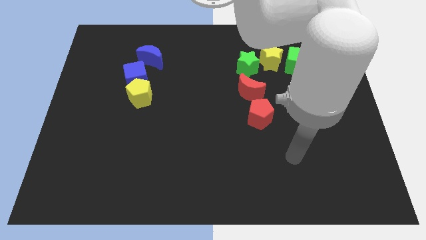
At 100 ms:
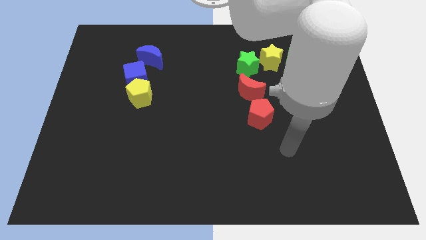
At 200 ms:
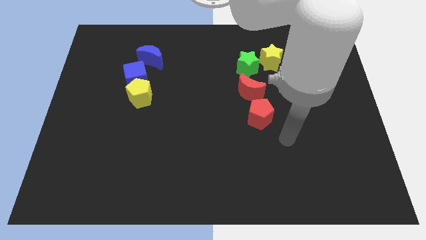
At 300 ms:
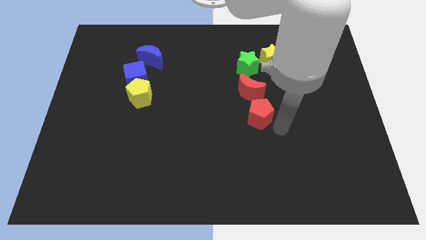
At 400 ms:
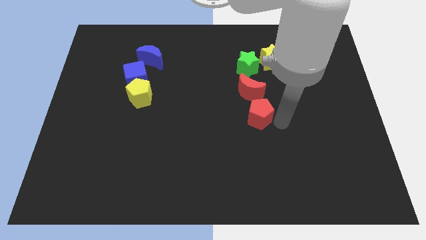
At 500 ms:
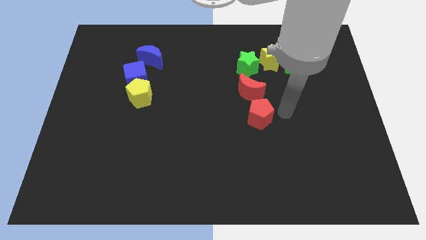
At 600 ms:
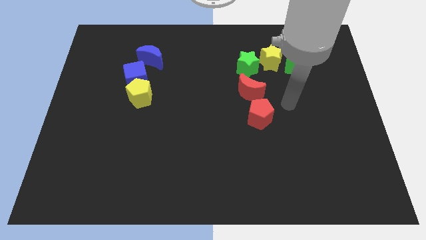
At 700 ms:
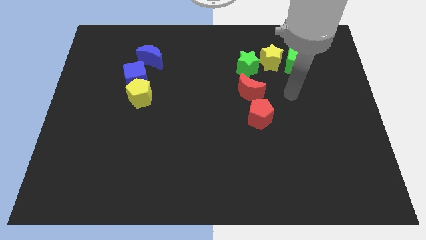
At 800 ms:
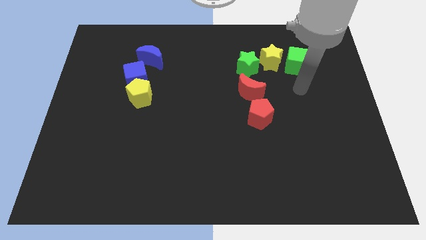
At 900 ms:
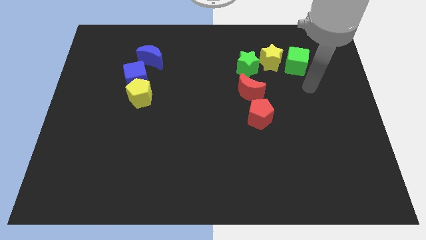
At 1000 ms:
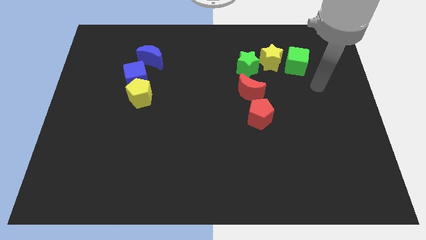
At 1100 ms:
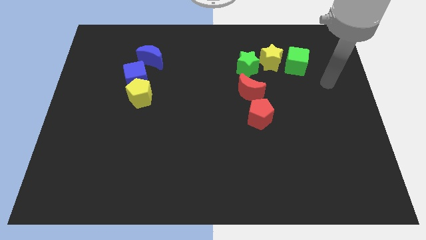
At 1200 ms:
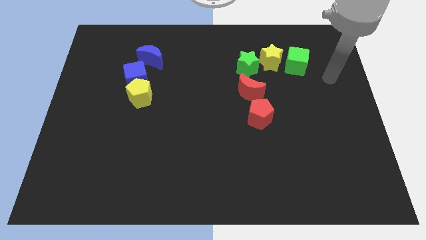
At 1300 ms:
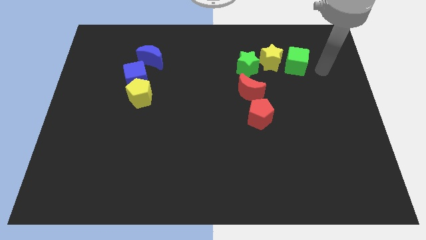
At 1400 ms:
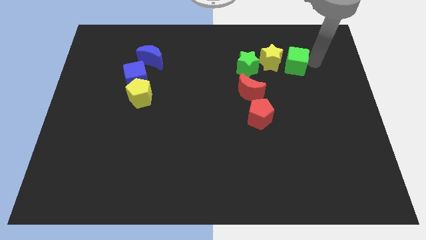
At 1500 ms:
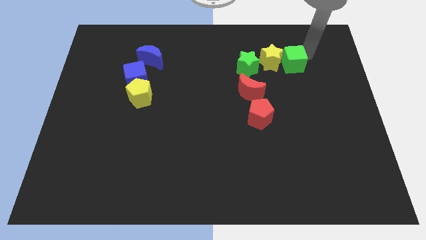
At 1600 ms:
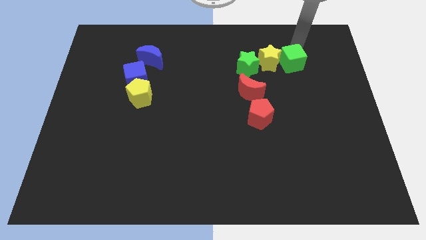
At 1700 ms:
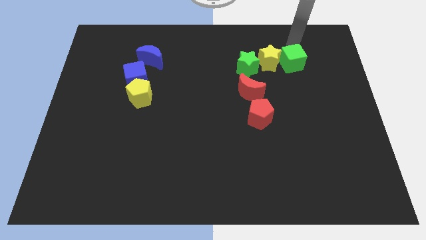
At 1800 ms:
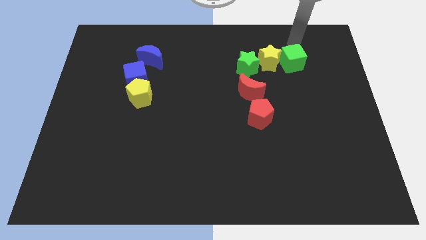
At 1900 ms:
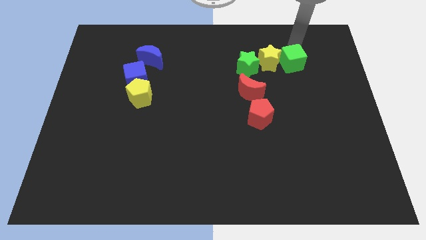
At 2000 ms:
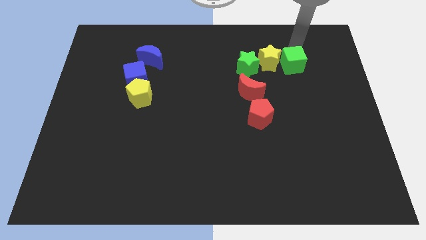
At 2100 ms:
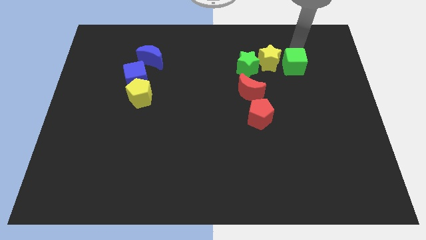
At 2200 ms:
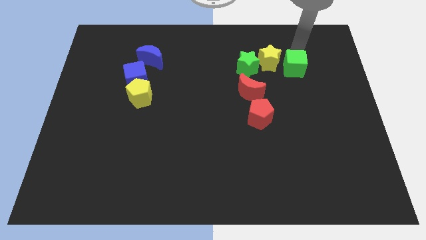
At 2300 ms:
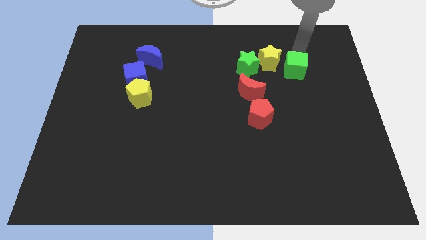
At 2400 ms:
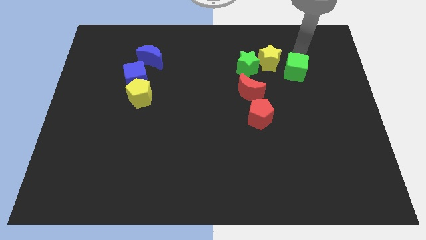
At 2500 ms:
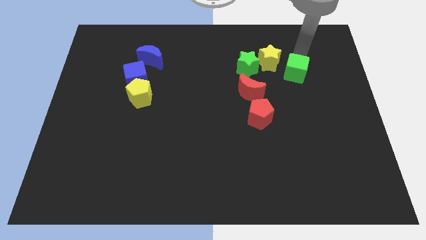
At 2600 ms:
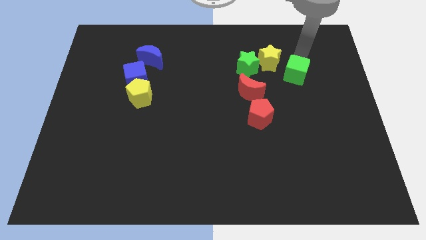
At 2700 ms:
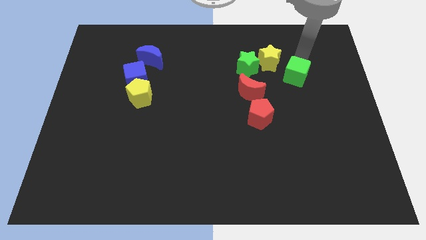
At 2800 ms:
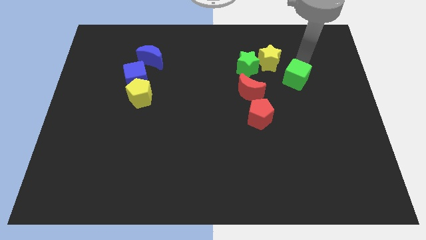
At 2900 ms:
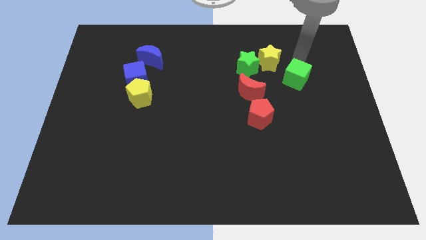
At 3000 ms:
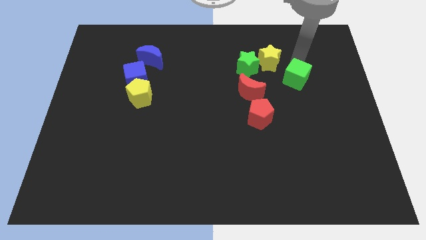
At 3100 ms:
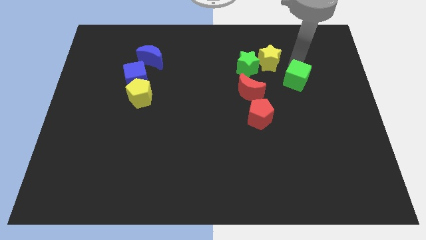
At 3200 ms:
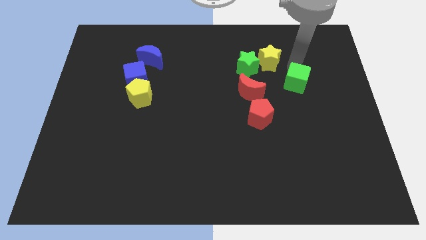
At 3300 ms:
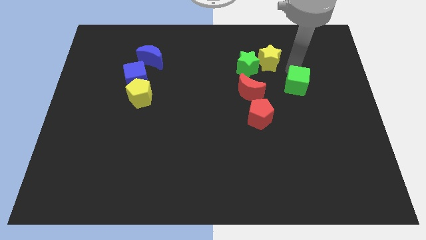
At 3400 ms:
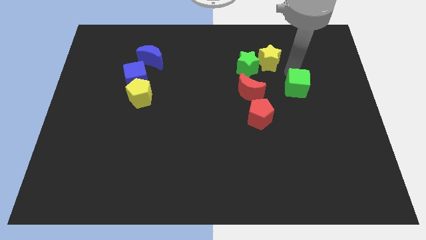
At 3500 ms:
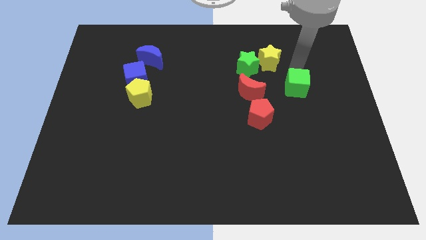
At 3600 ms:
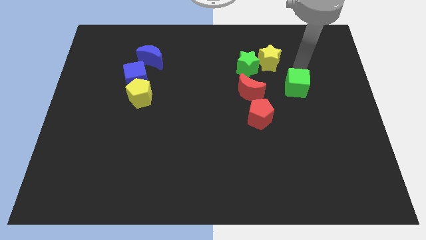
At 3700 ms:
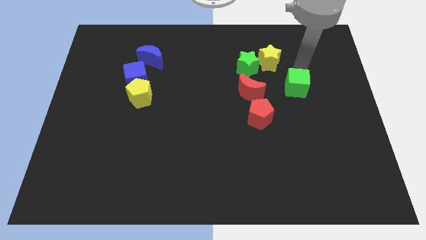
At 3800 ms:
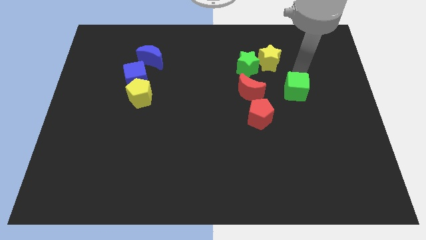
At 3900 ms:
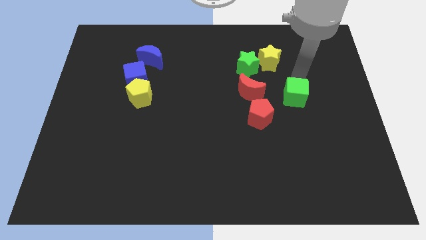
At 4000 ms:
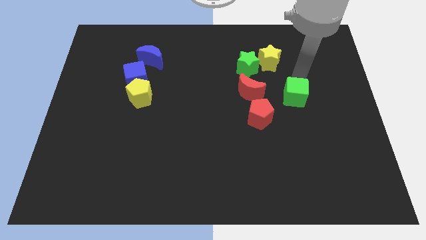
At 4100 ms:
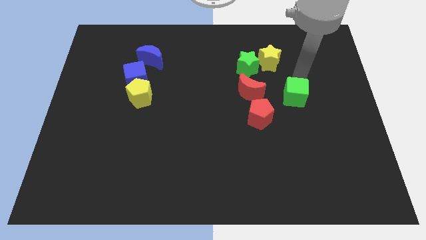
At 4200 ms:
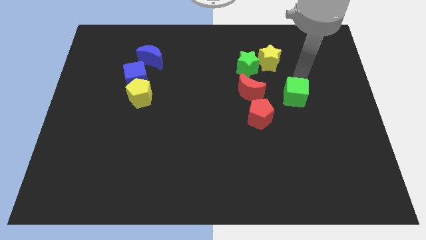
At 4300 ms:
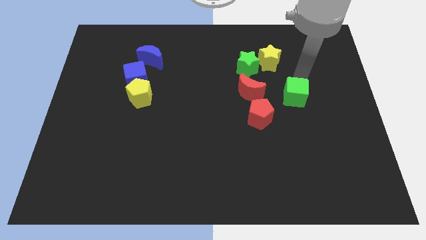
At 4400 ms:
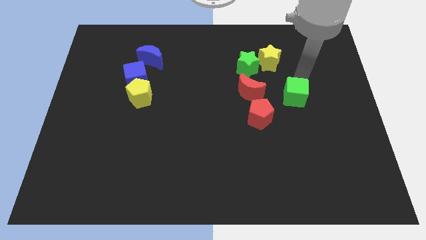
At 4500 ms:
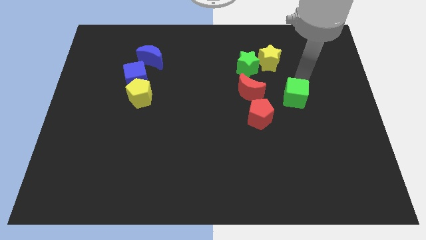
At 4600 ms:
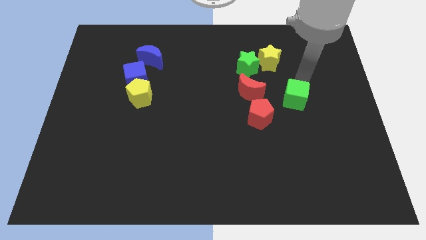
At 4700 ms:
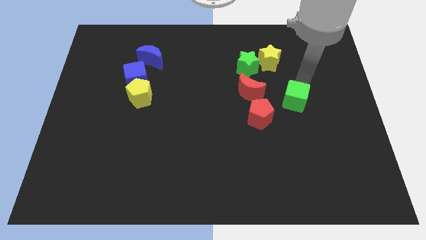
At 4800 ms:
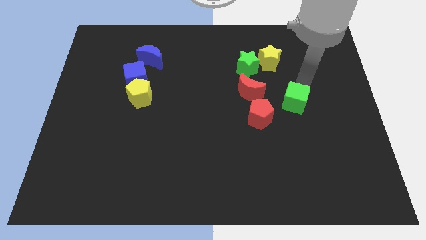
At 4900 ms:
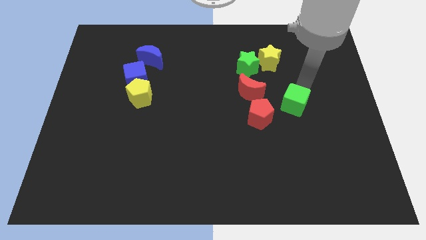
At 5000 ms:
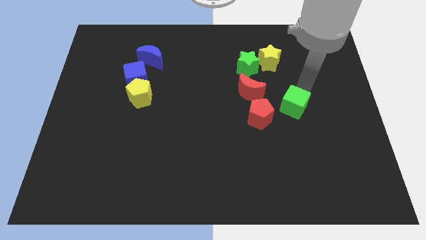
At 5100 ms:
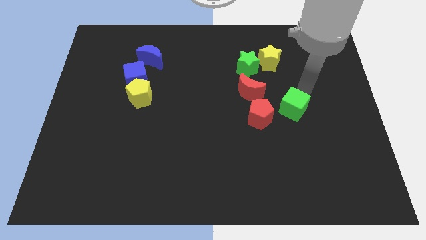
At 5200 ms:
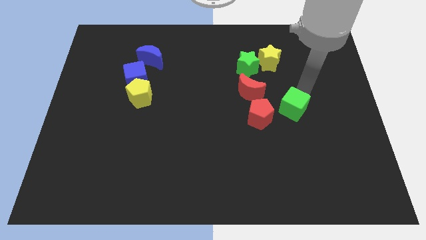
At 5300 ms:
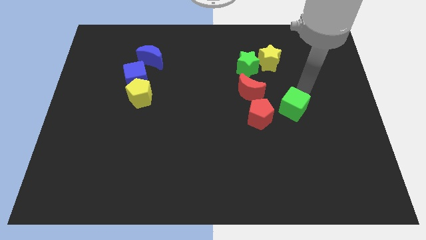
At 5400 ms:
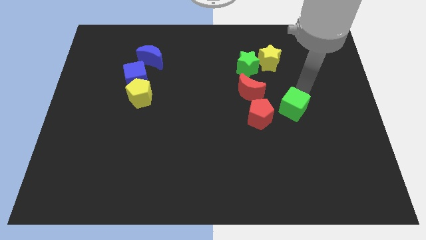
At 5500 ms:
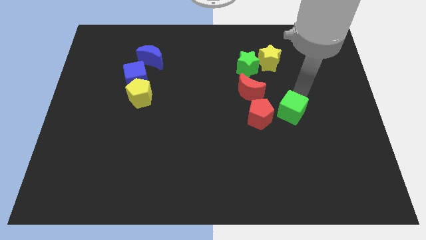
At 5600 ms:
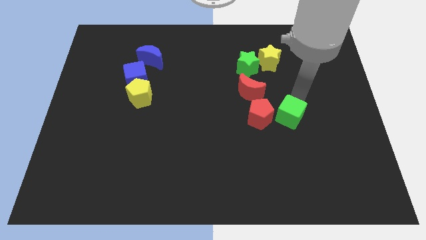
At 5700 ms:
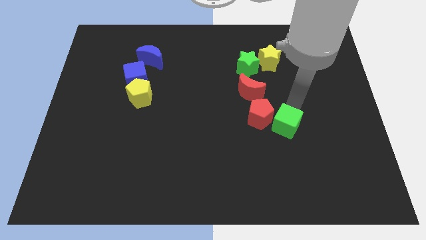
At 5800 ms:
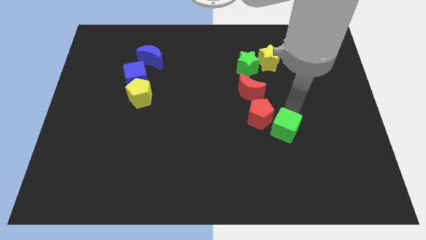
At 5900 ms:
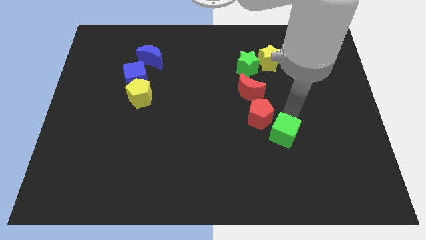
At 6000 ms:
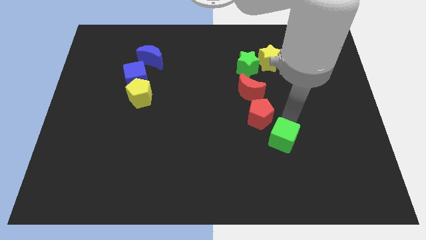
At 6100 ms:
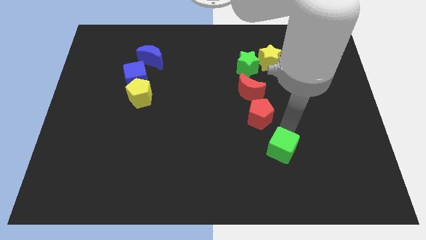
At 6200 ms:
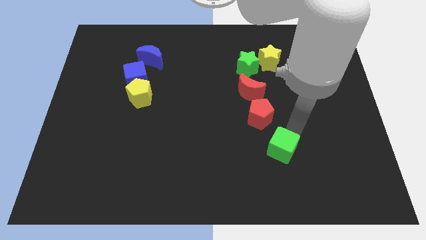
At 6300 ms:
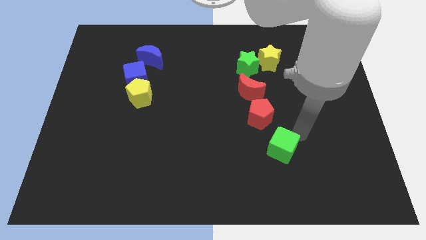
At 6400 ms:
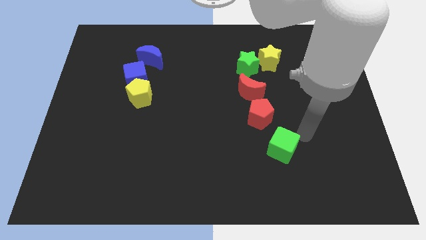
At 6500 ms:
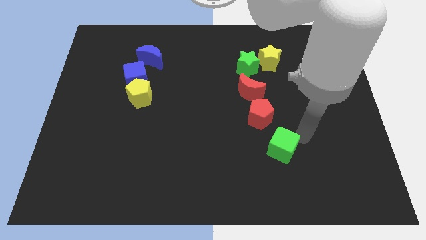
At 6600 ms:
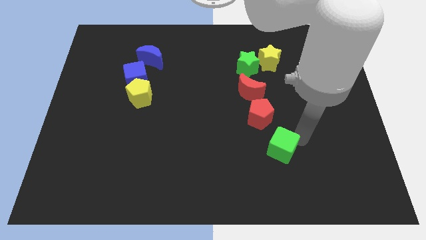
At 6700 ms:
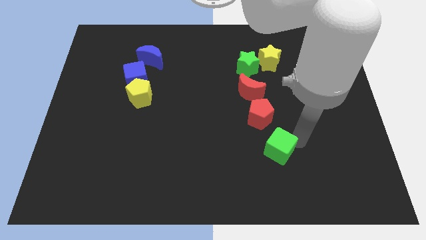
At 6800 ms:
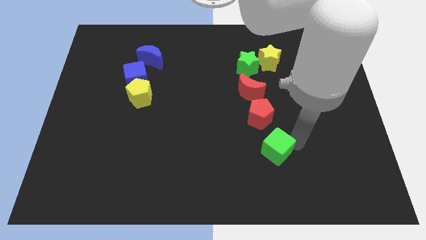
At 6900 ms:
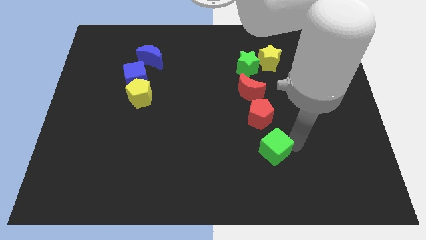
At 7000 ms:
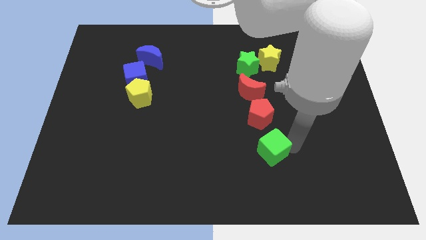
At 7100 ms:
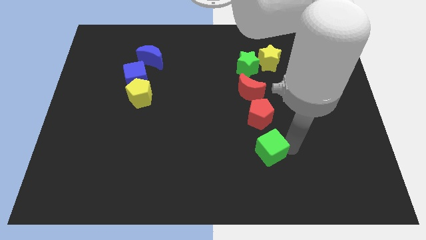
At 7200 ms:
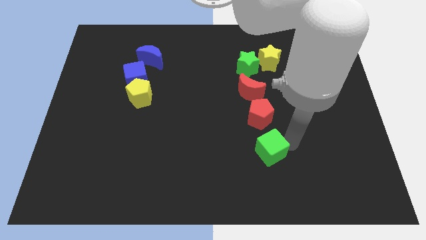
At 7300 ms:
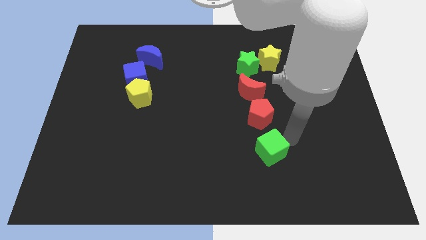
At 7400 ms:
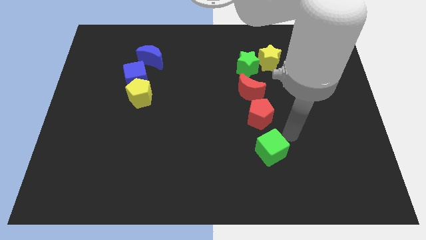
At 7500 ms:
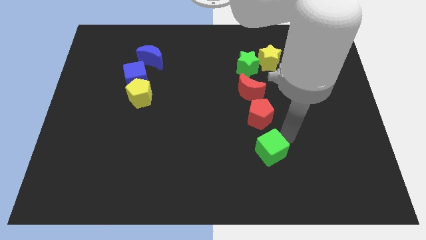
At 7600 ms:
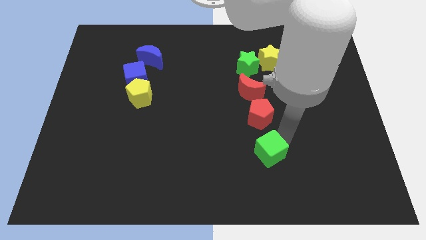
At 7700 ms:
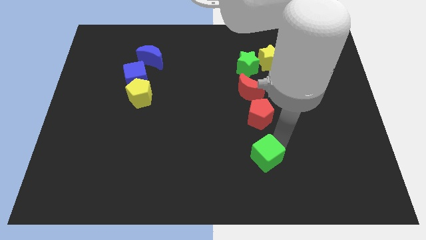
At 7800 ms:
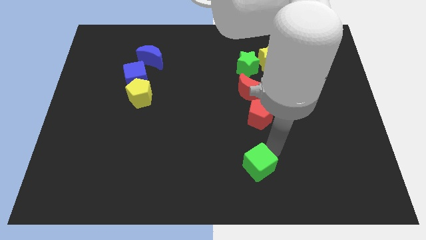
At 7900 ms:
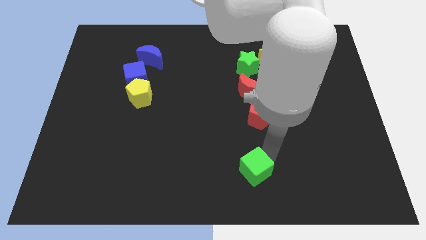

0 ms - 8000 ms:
move the green cube to the bottom
